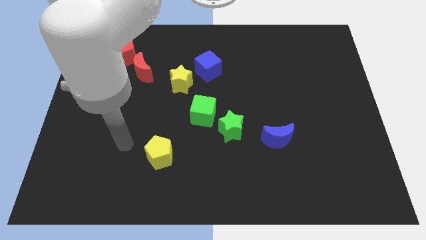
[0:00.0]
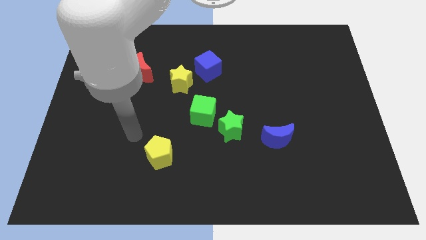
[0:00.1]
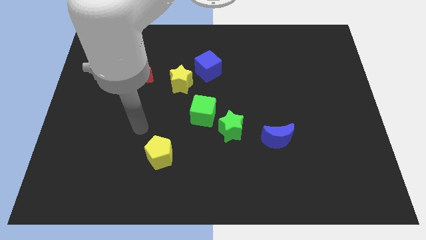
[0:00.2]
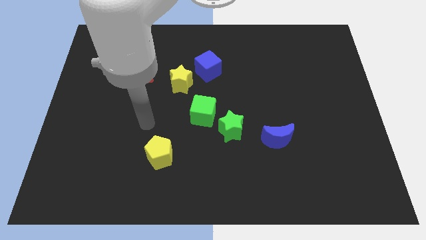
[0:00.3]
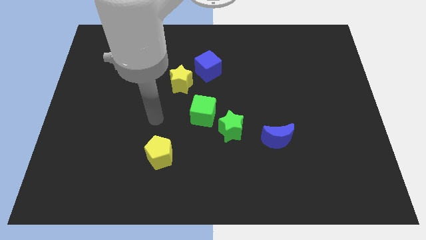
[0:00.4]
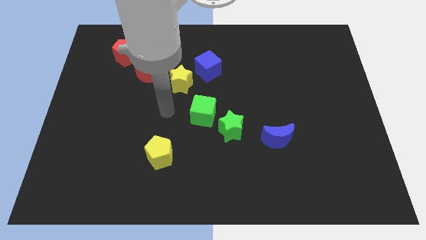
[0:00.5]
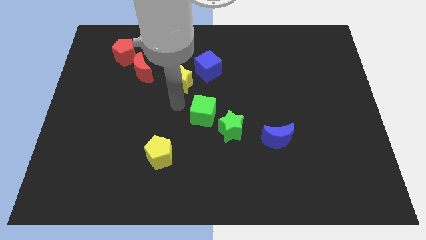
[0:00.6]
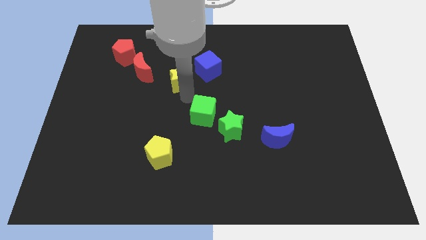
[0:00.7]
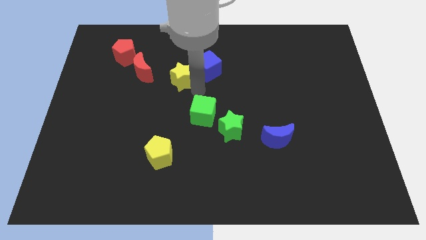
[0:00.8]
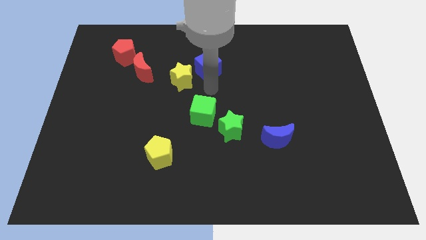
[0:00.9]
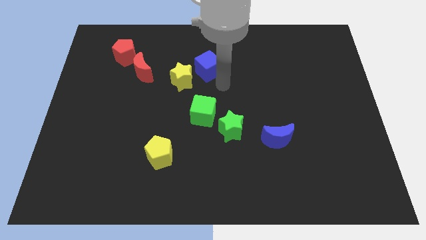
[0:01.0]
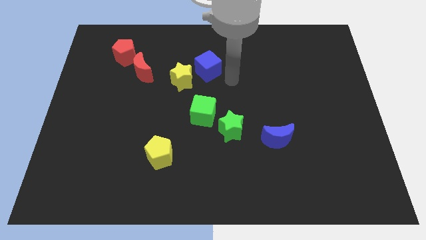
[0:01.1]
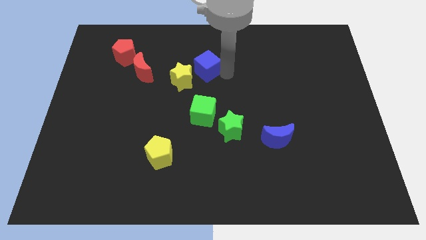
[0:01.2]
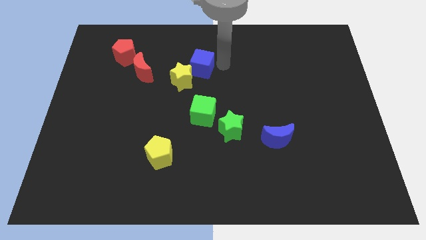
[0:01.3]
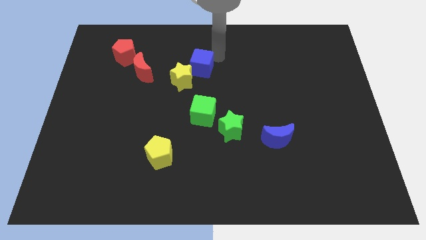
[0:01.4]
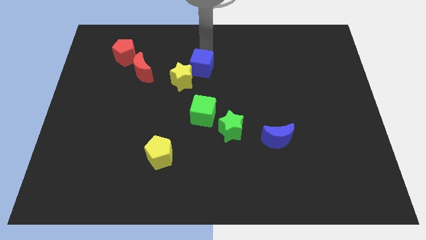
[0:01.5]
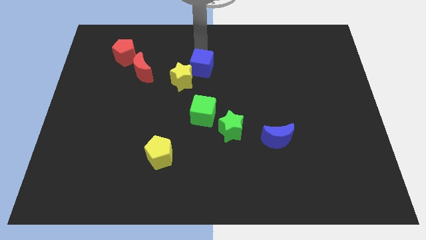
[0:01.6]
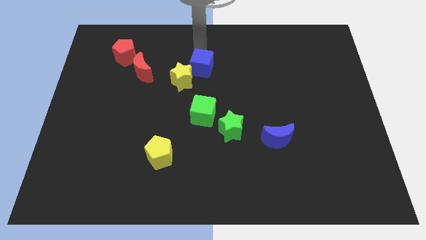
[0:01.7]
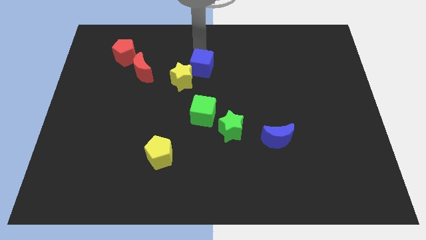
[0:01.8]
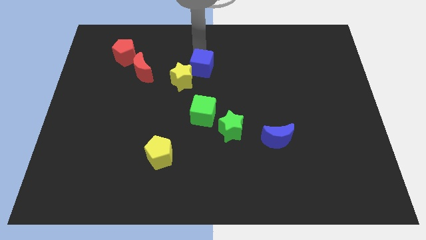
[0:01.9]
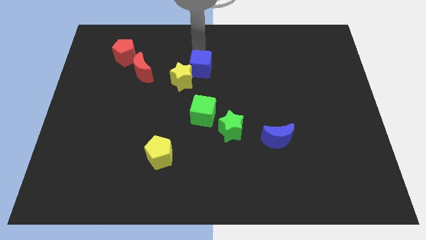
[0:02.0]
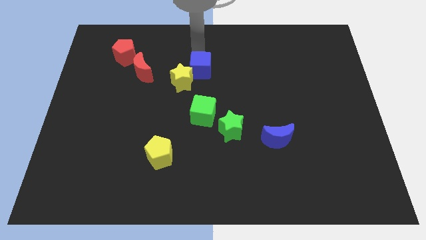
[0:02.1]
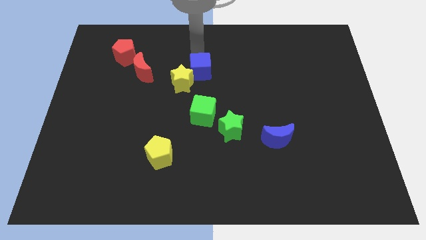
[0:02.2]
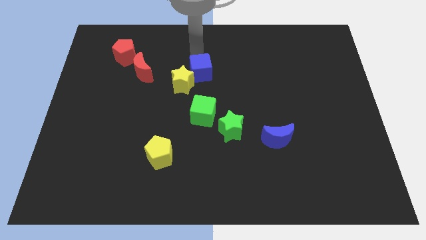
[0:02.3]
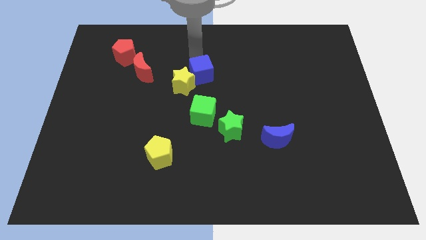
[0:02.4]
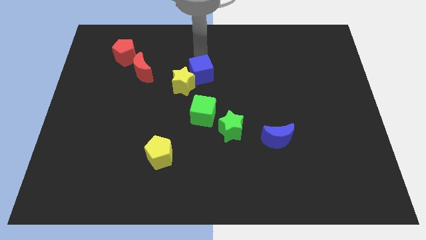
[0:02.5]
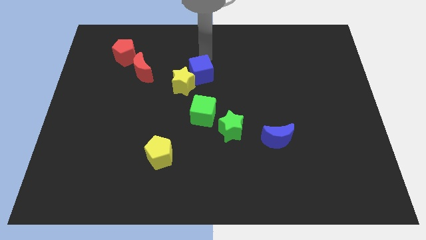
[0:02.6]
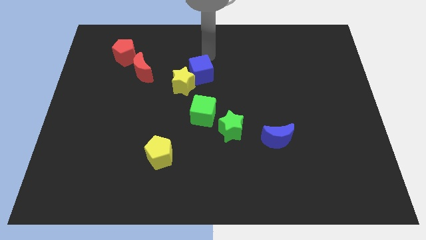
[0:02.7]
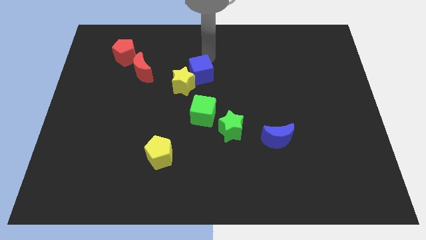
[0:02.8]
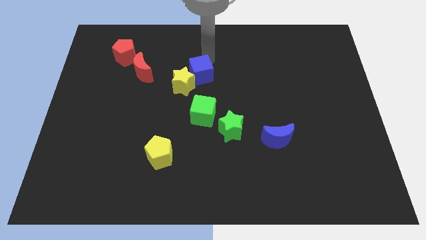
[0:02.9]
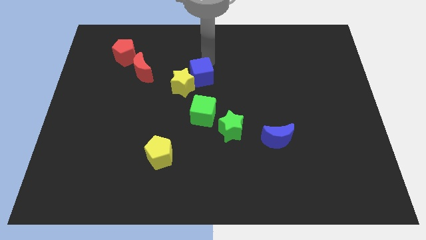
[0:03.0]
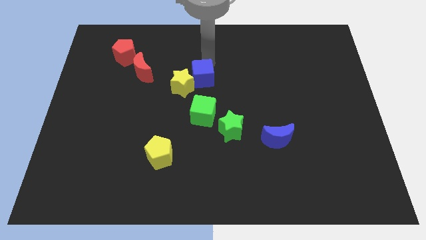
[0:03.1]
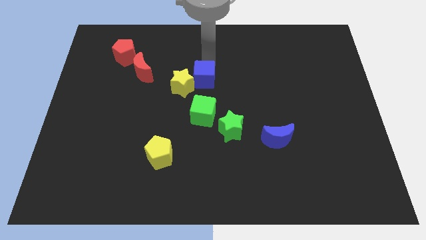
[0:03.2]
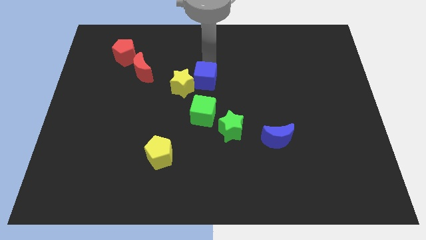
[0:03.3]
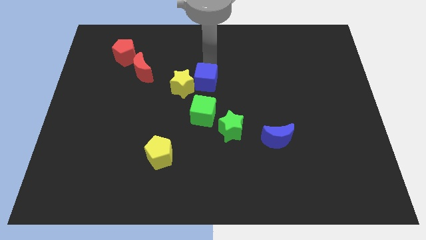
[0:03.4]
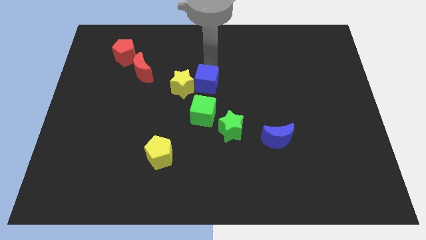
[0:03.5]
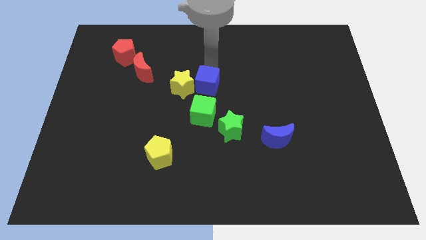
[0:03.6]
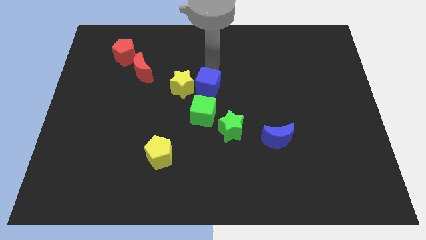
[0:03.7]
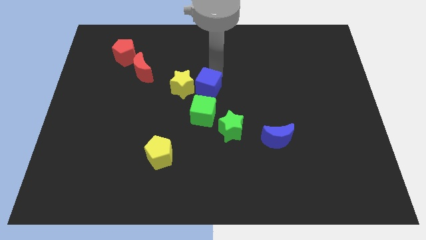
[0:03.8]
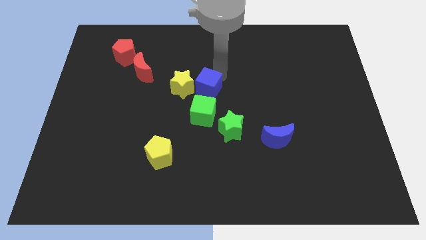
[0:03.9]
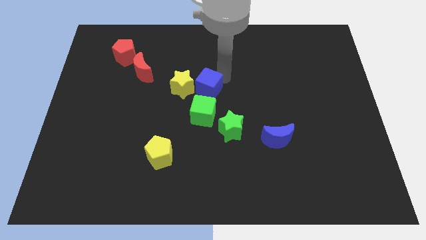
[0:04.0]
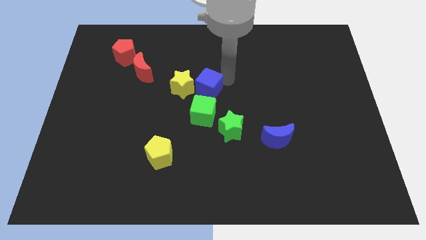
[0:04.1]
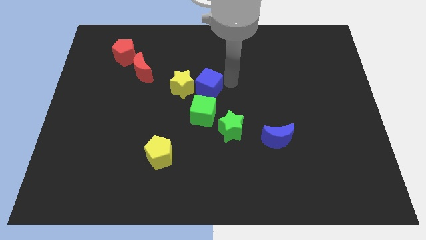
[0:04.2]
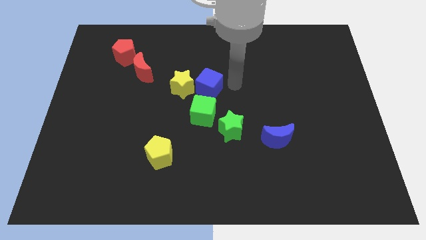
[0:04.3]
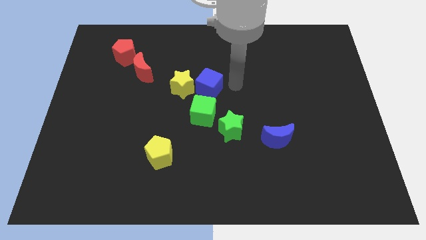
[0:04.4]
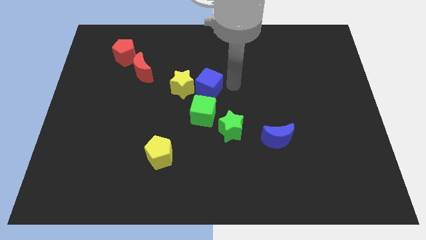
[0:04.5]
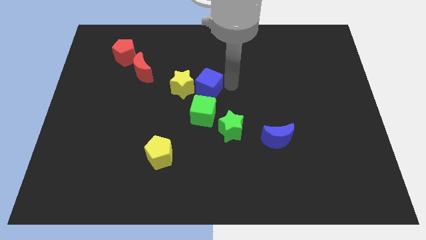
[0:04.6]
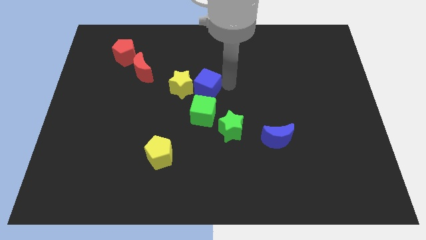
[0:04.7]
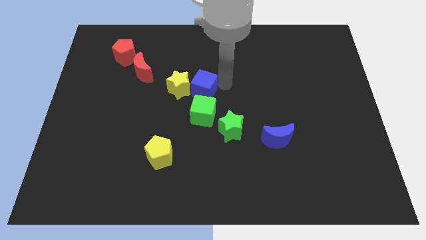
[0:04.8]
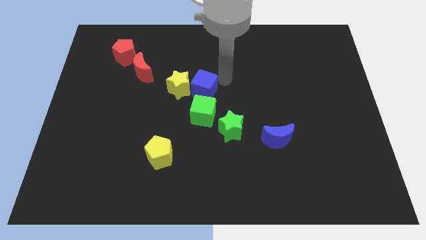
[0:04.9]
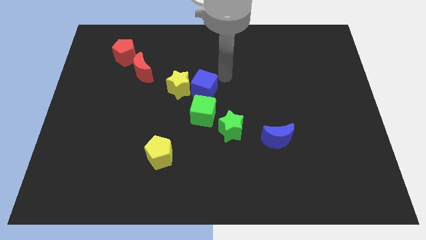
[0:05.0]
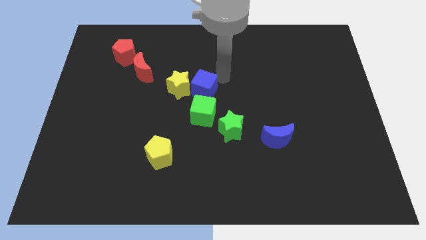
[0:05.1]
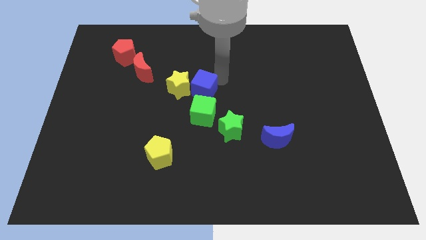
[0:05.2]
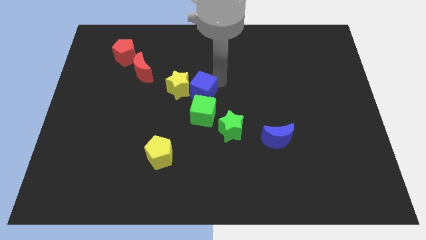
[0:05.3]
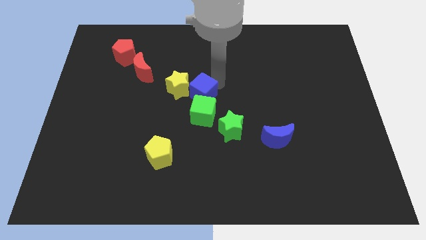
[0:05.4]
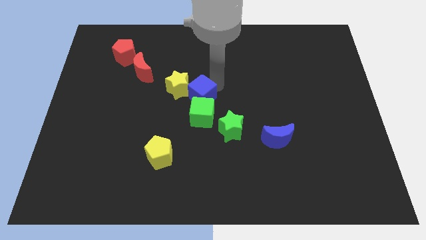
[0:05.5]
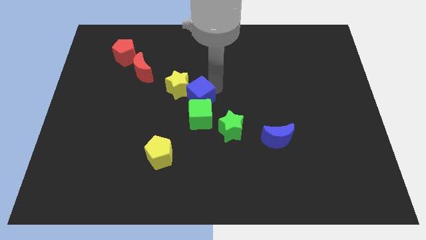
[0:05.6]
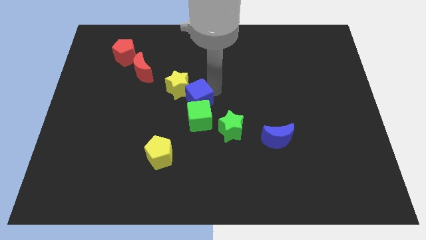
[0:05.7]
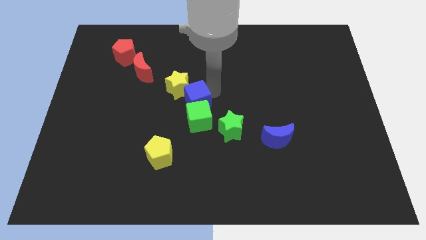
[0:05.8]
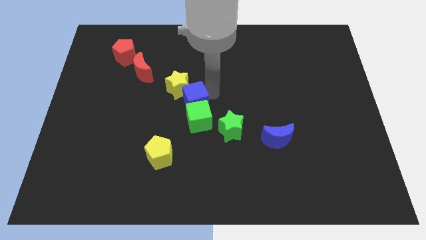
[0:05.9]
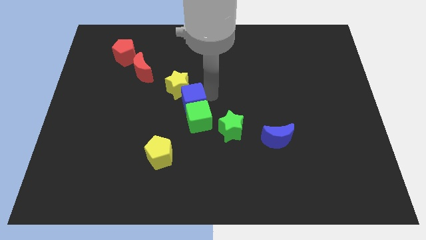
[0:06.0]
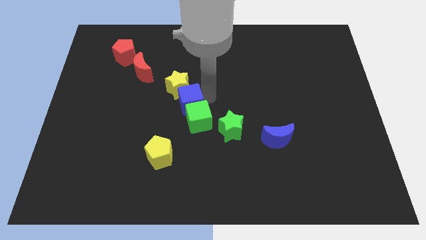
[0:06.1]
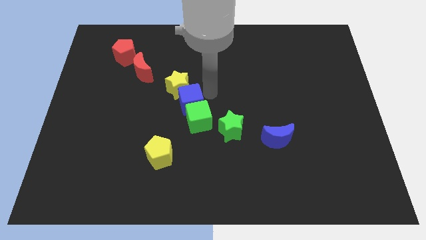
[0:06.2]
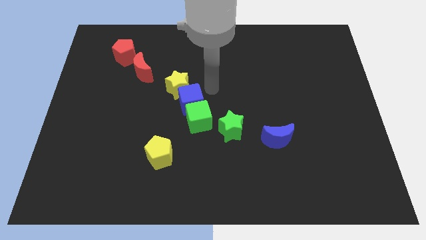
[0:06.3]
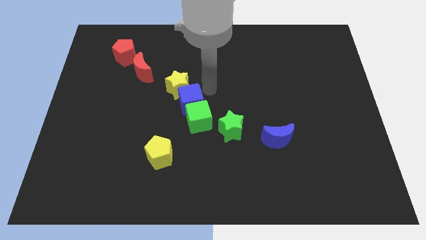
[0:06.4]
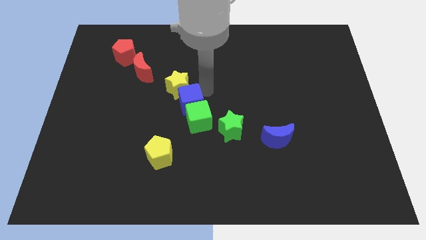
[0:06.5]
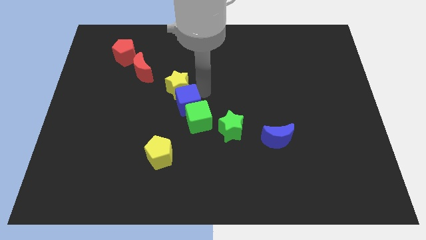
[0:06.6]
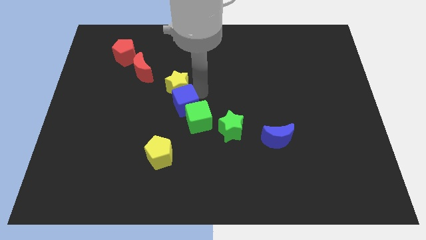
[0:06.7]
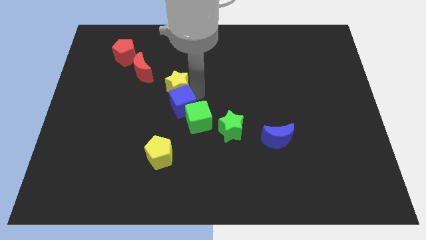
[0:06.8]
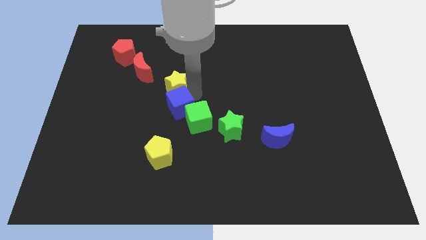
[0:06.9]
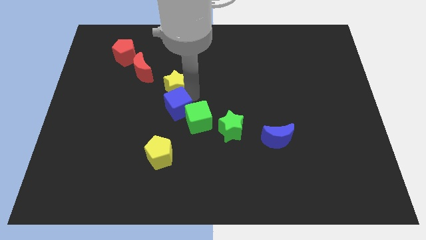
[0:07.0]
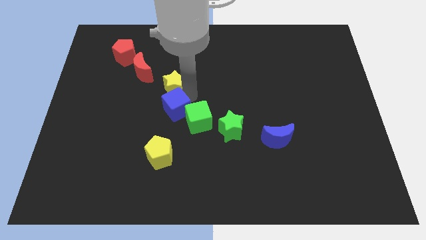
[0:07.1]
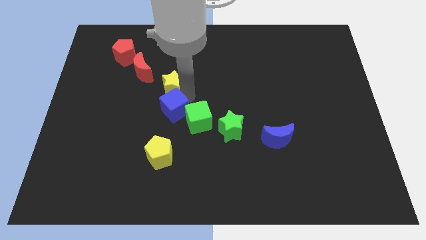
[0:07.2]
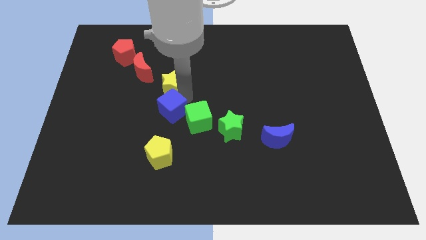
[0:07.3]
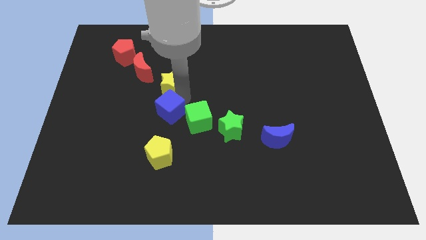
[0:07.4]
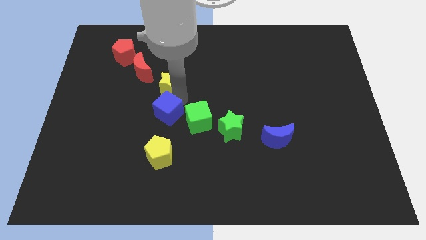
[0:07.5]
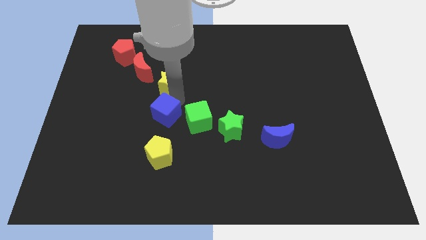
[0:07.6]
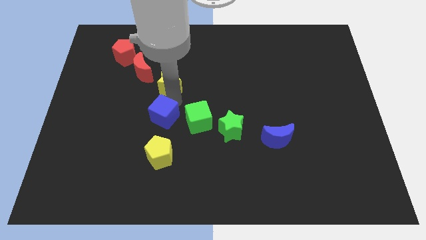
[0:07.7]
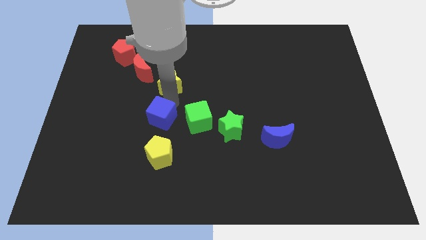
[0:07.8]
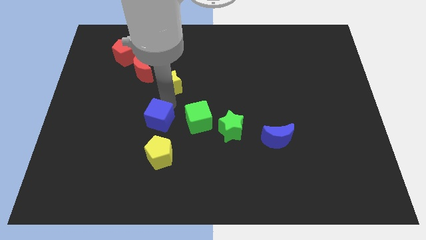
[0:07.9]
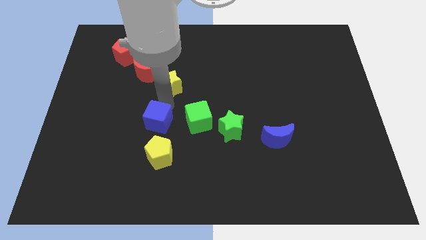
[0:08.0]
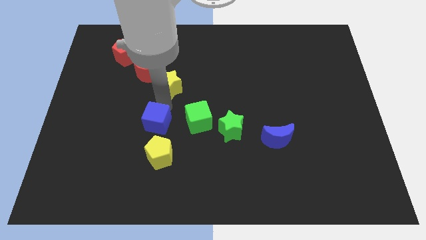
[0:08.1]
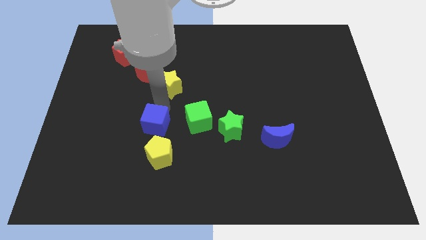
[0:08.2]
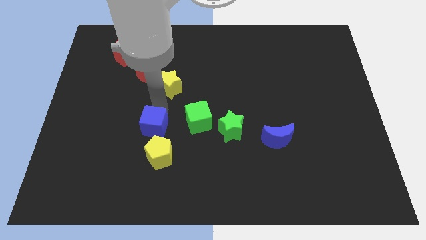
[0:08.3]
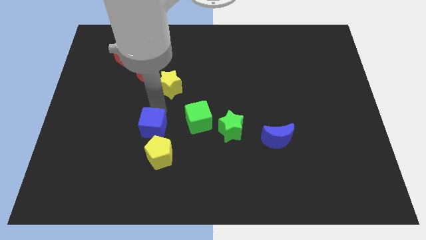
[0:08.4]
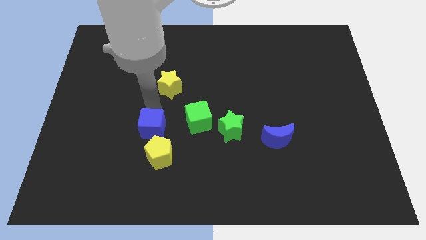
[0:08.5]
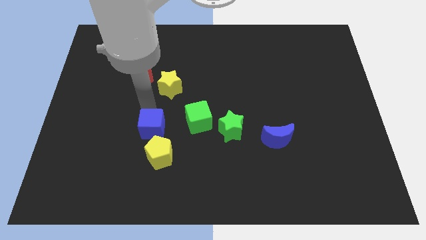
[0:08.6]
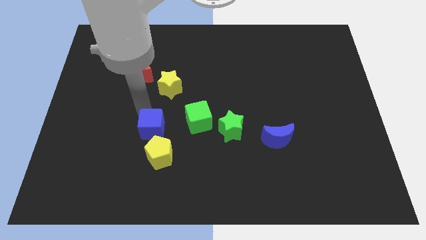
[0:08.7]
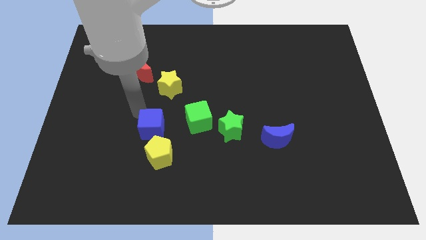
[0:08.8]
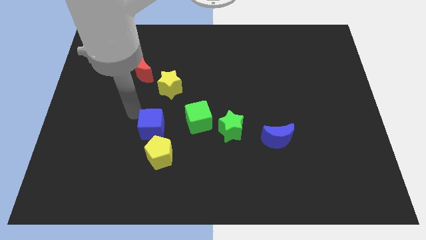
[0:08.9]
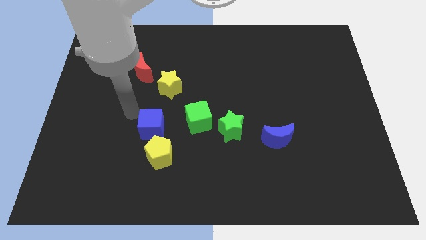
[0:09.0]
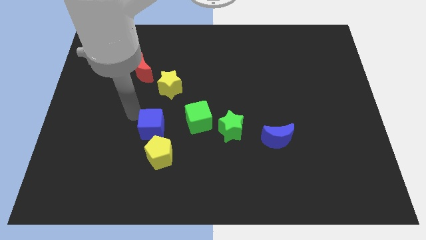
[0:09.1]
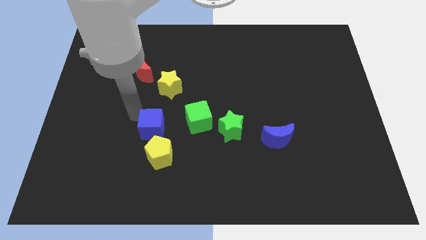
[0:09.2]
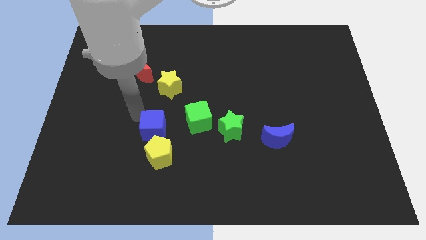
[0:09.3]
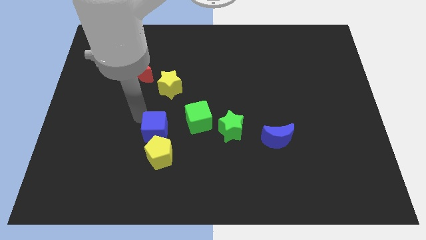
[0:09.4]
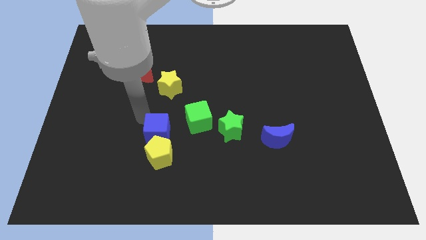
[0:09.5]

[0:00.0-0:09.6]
move the blue cube to the yellow pentagon
